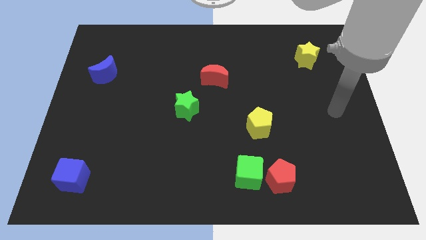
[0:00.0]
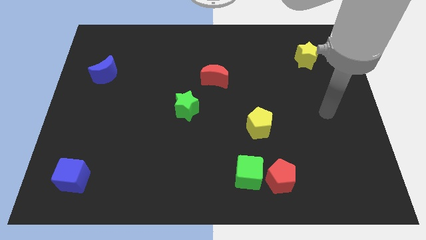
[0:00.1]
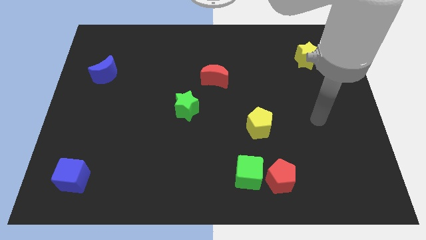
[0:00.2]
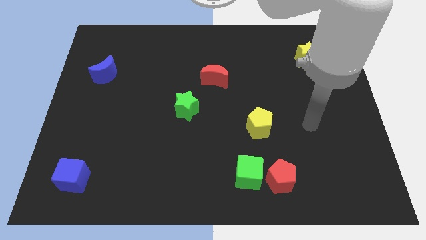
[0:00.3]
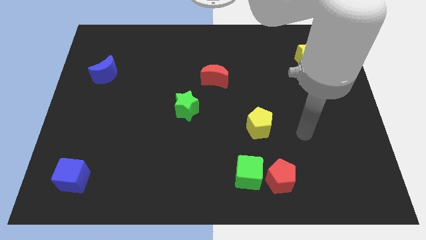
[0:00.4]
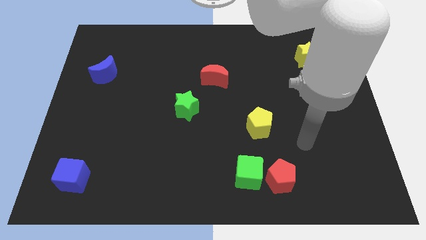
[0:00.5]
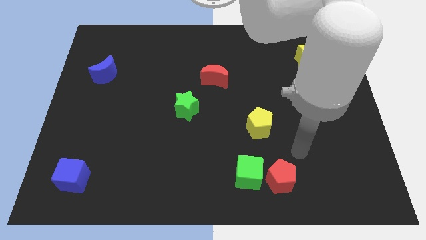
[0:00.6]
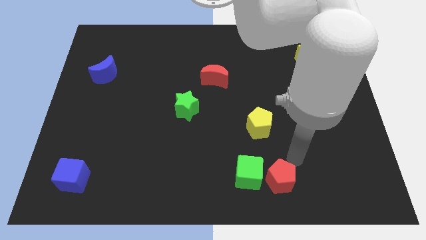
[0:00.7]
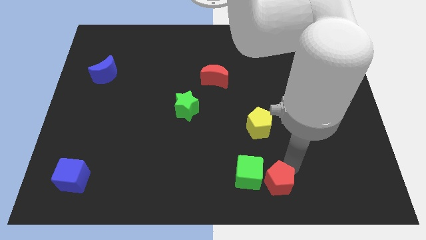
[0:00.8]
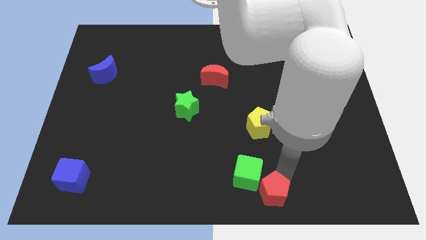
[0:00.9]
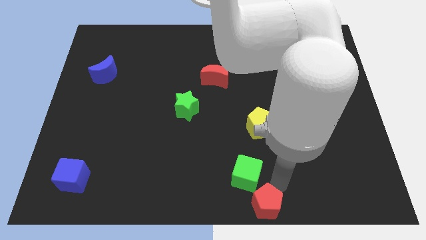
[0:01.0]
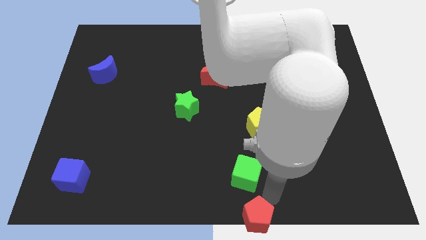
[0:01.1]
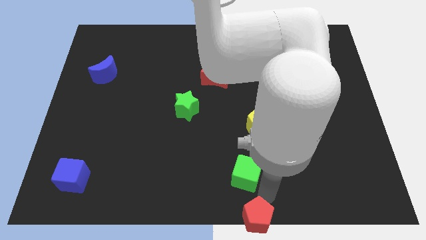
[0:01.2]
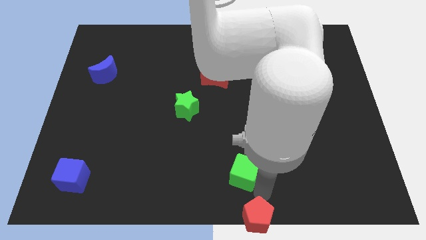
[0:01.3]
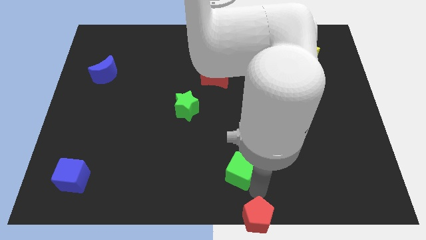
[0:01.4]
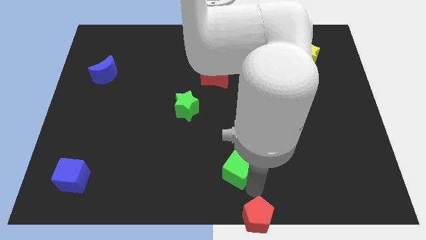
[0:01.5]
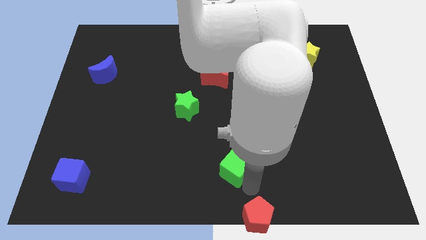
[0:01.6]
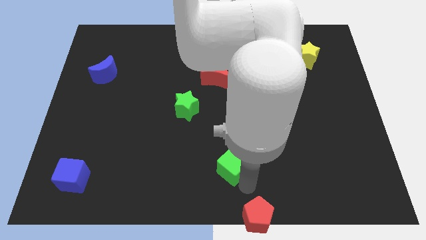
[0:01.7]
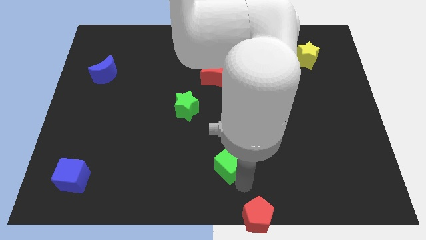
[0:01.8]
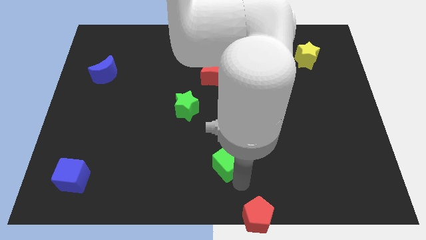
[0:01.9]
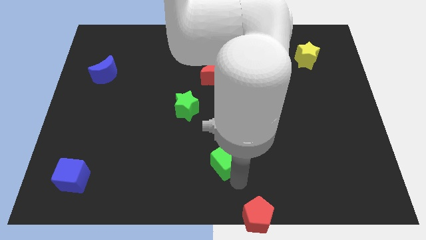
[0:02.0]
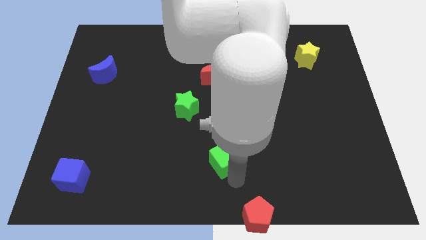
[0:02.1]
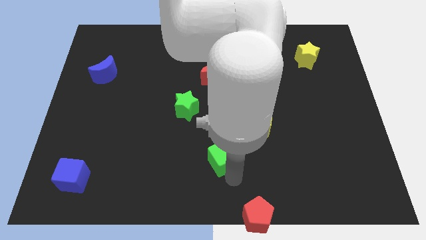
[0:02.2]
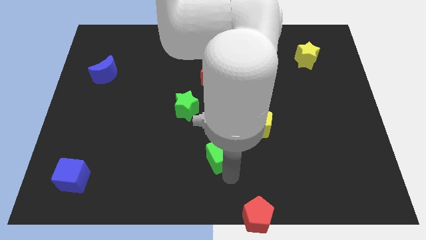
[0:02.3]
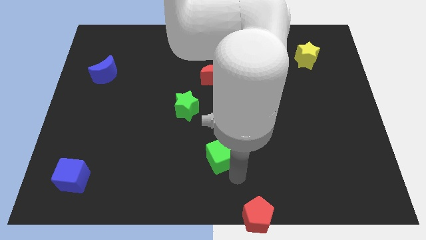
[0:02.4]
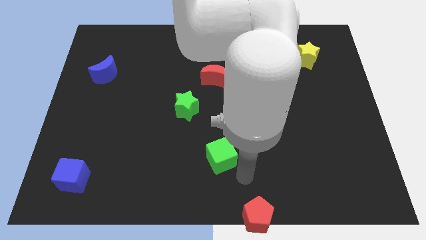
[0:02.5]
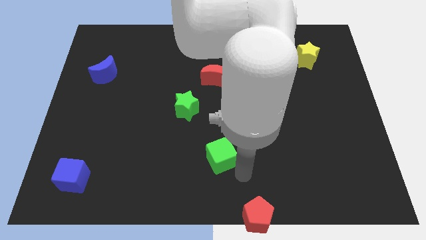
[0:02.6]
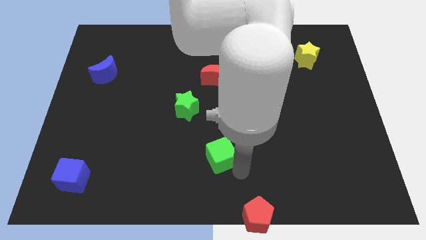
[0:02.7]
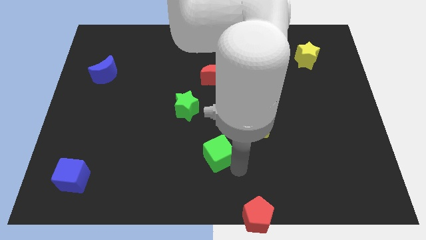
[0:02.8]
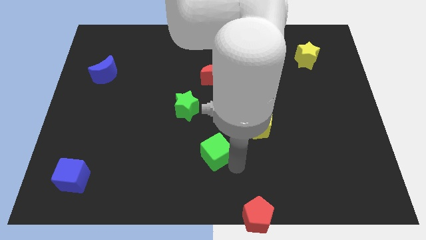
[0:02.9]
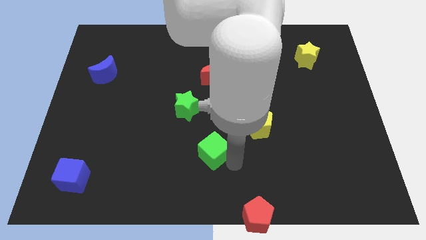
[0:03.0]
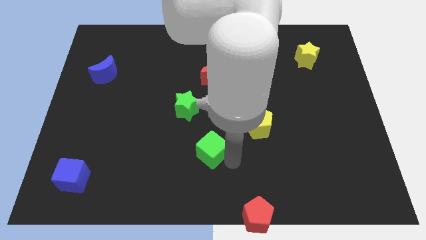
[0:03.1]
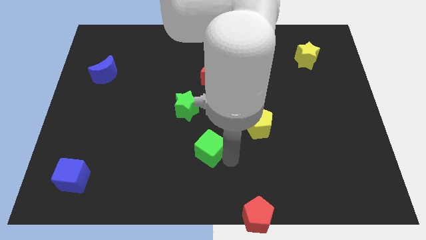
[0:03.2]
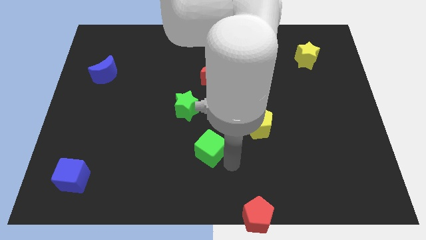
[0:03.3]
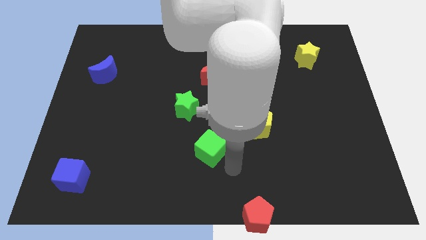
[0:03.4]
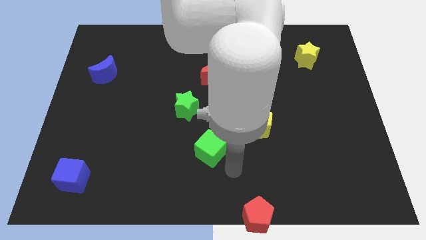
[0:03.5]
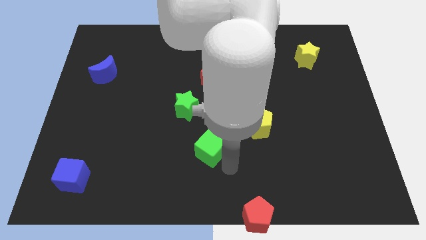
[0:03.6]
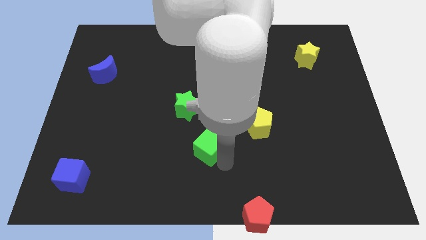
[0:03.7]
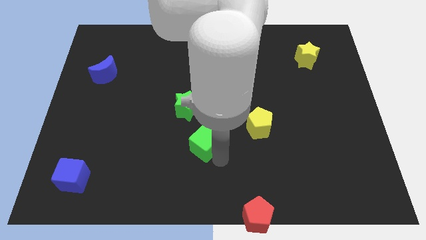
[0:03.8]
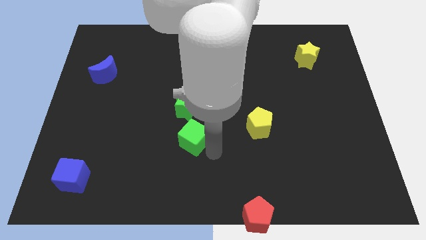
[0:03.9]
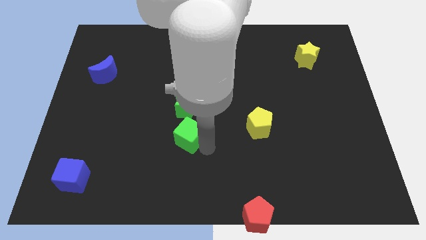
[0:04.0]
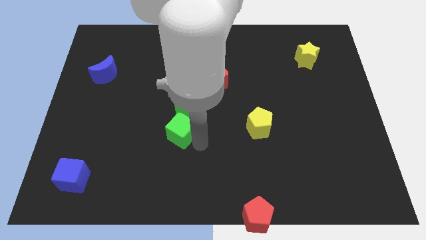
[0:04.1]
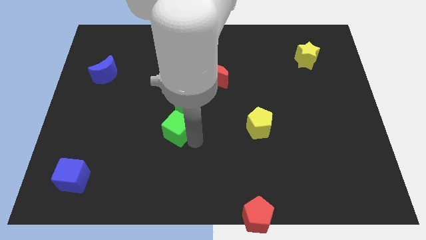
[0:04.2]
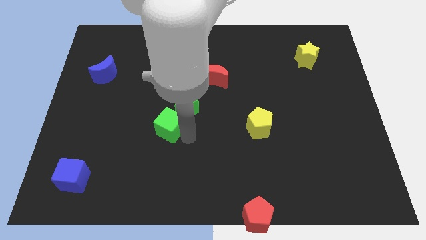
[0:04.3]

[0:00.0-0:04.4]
move the green cube diagonally upwards and left

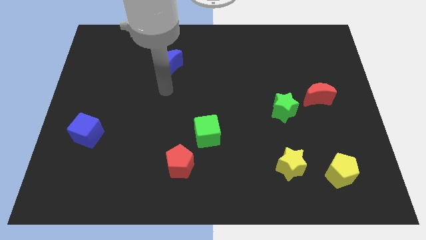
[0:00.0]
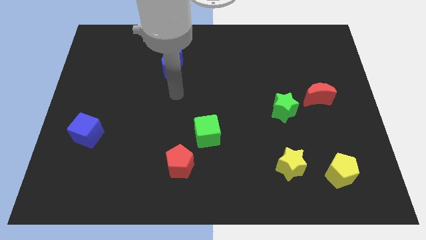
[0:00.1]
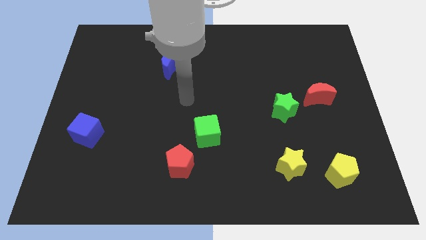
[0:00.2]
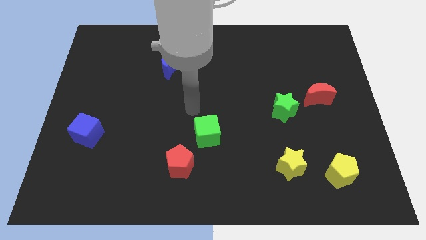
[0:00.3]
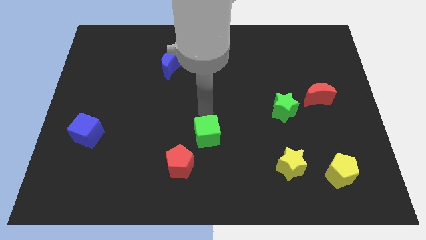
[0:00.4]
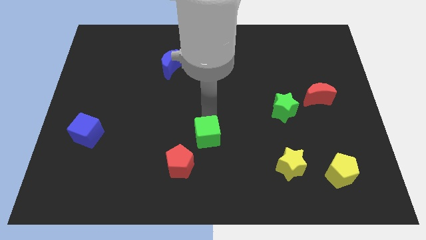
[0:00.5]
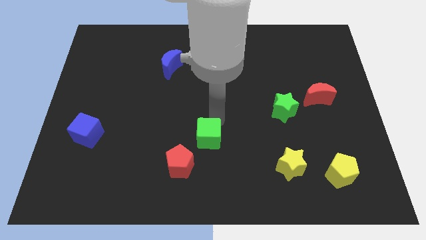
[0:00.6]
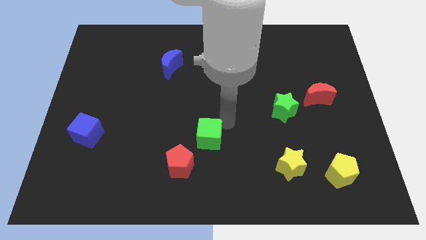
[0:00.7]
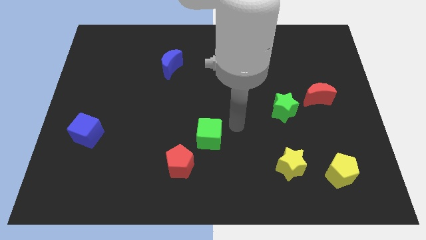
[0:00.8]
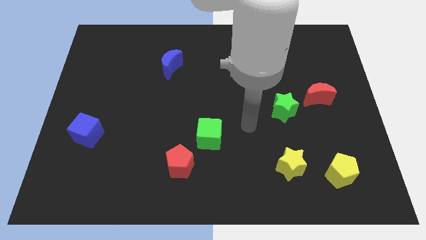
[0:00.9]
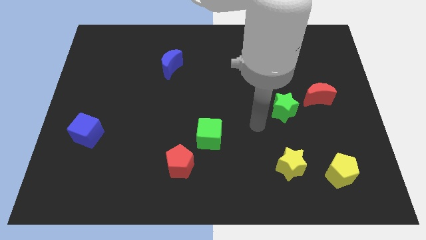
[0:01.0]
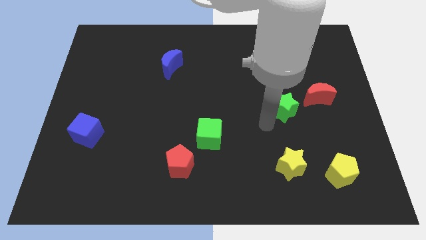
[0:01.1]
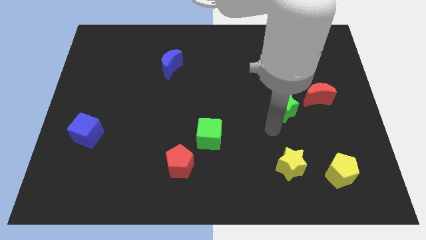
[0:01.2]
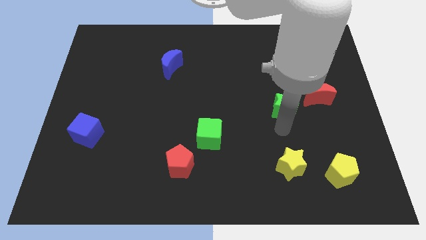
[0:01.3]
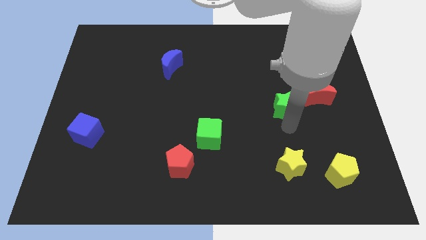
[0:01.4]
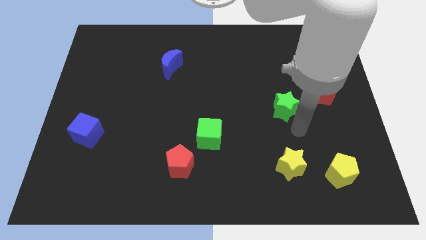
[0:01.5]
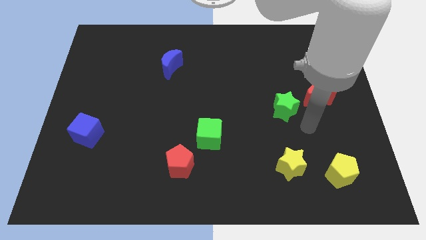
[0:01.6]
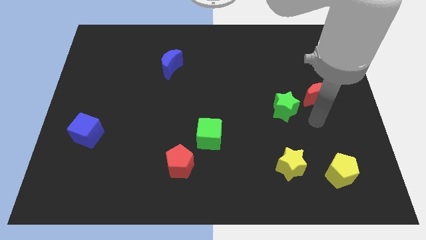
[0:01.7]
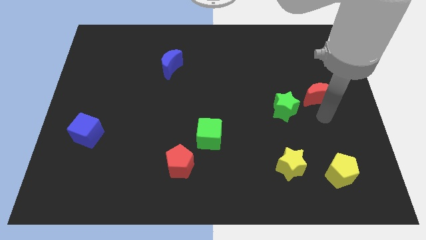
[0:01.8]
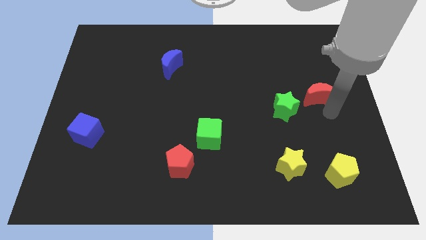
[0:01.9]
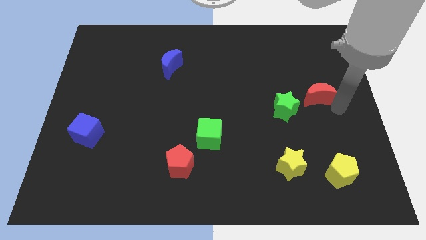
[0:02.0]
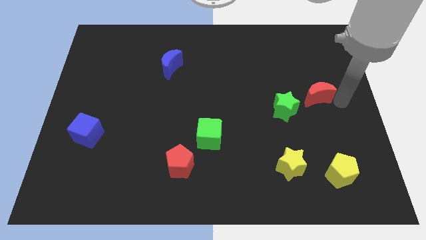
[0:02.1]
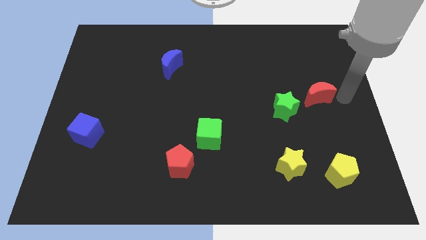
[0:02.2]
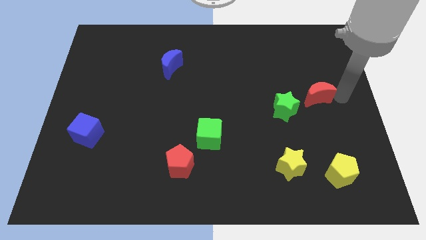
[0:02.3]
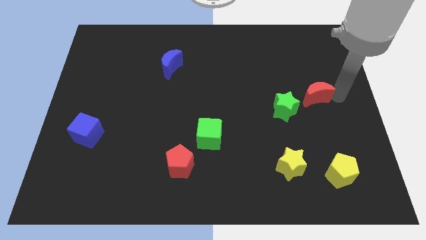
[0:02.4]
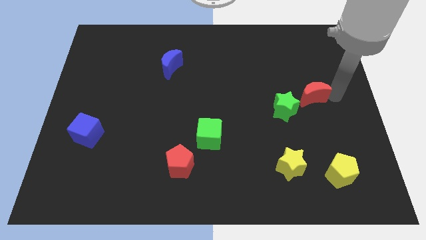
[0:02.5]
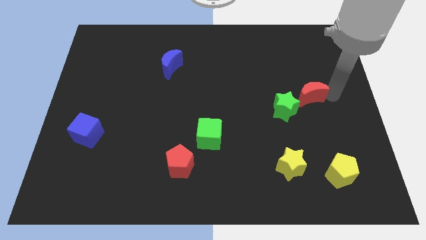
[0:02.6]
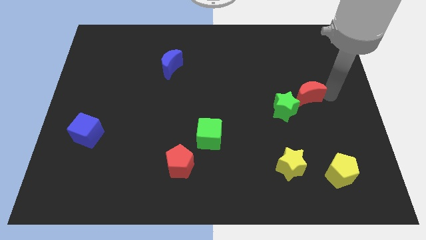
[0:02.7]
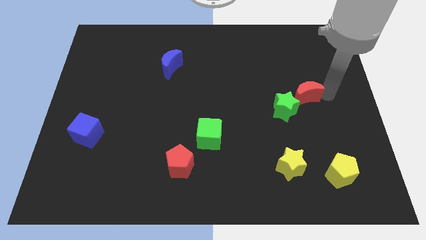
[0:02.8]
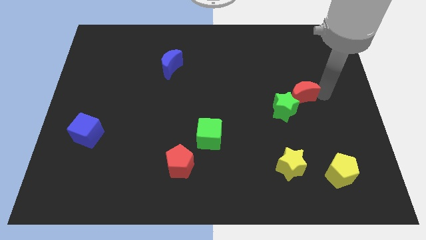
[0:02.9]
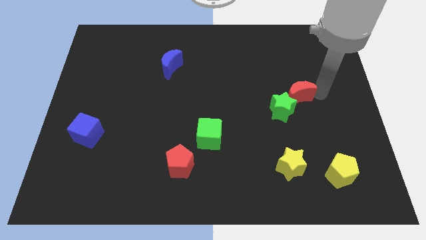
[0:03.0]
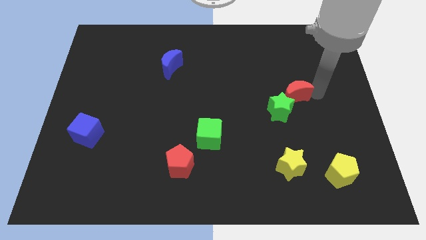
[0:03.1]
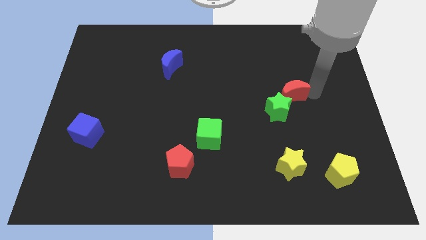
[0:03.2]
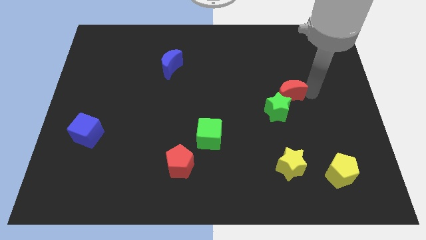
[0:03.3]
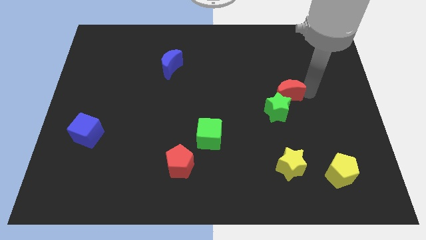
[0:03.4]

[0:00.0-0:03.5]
slightly push the red moon left

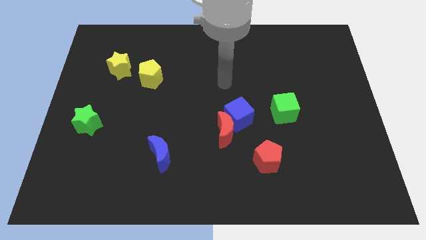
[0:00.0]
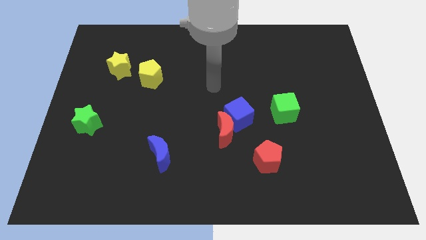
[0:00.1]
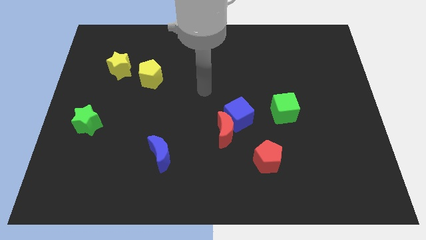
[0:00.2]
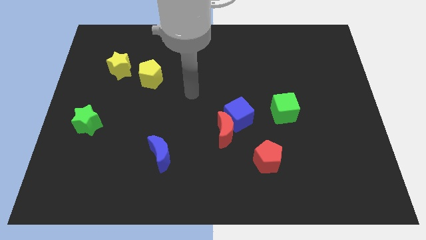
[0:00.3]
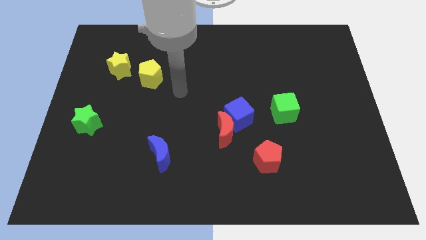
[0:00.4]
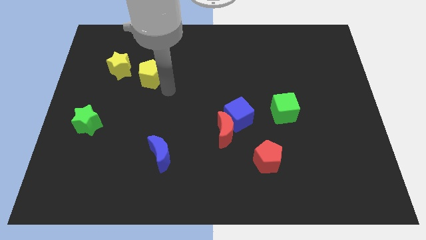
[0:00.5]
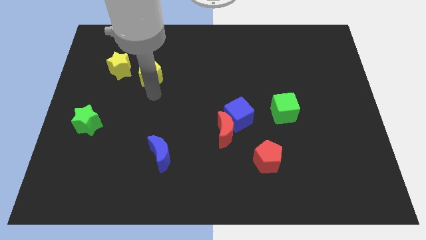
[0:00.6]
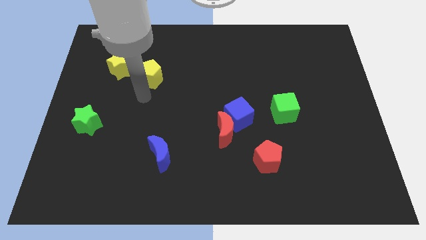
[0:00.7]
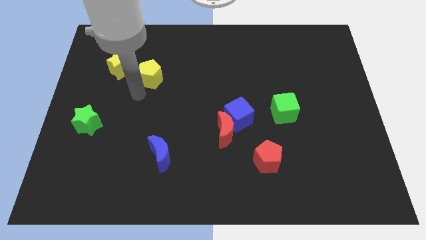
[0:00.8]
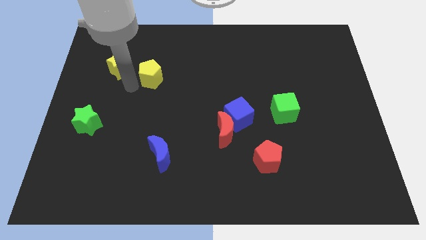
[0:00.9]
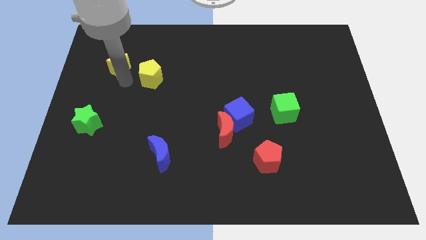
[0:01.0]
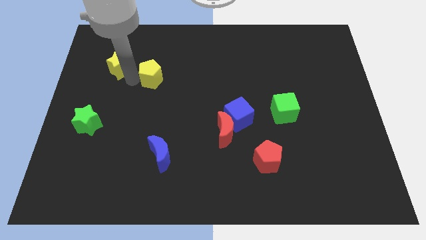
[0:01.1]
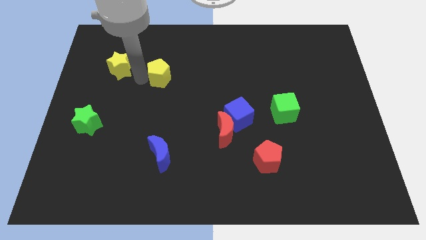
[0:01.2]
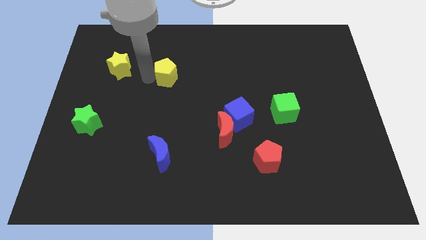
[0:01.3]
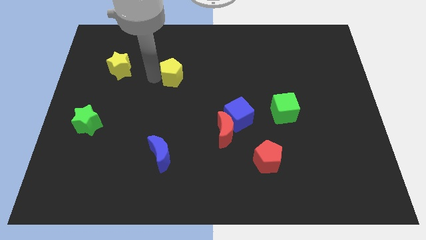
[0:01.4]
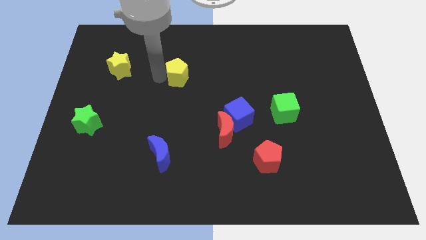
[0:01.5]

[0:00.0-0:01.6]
slightly push the yellow pentagon right
